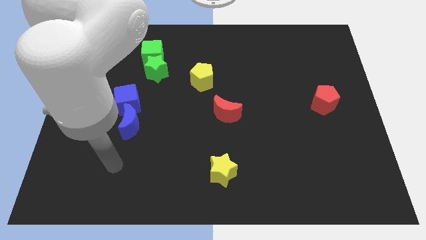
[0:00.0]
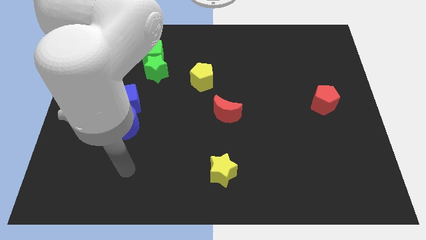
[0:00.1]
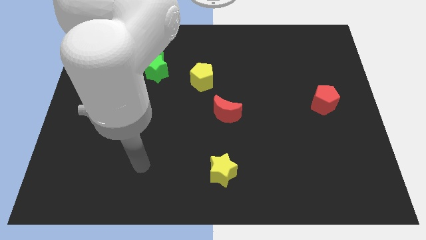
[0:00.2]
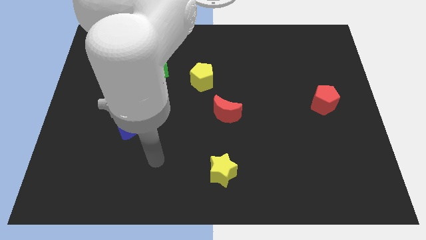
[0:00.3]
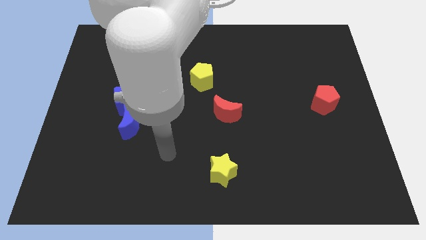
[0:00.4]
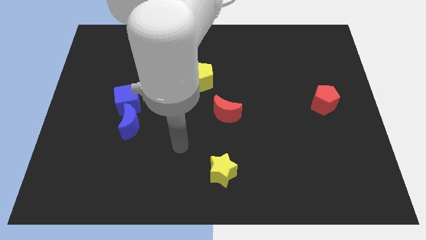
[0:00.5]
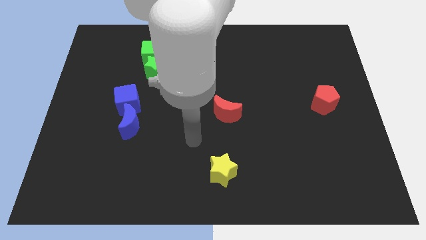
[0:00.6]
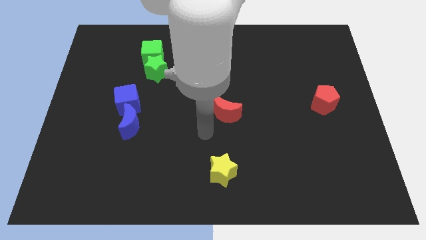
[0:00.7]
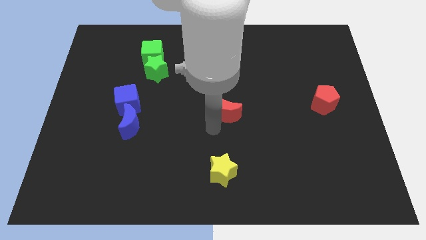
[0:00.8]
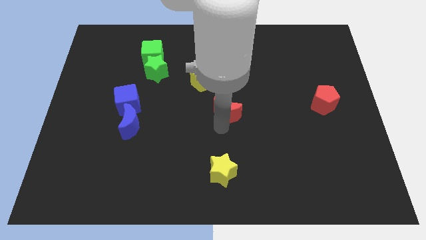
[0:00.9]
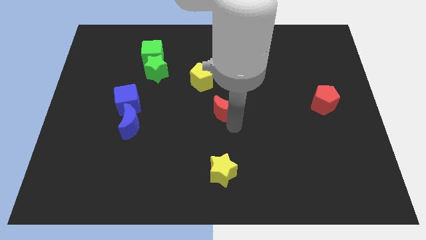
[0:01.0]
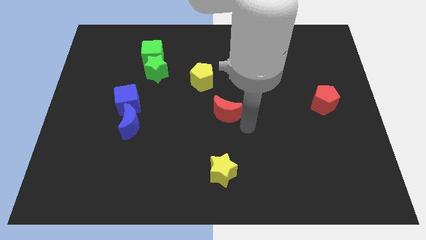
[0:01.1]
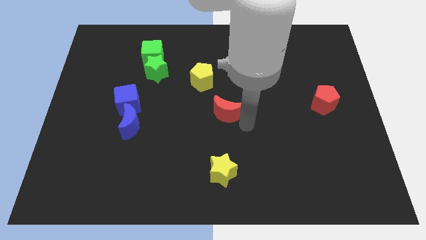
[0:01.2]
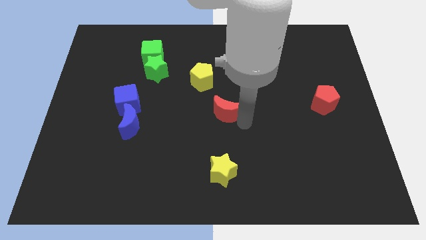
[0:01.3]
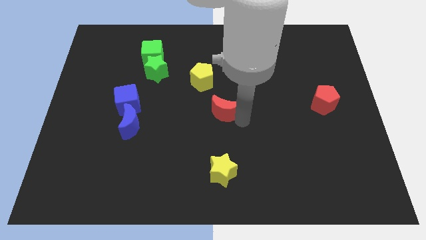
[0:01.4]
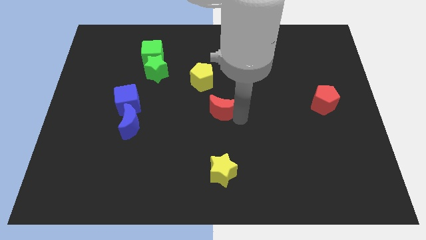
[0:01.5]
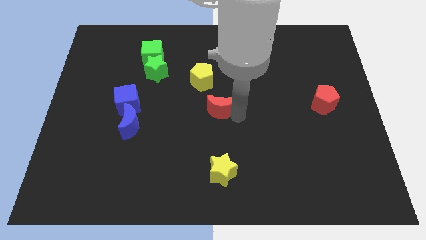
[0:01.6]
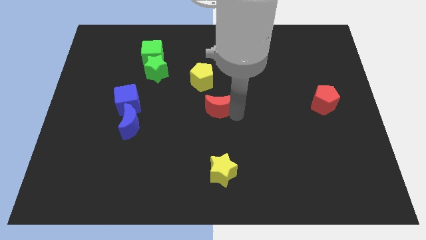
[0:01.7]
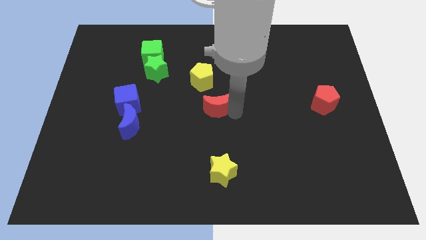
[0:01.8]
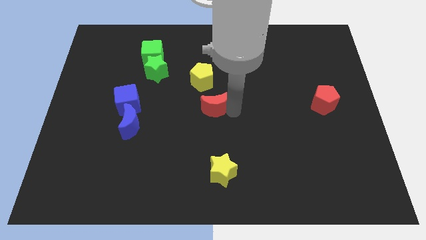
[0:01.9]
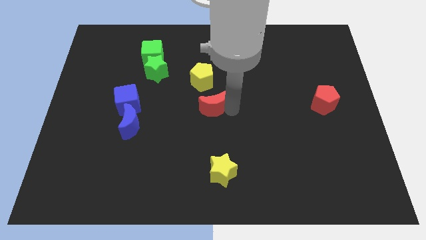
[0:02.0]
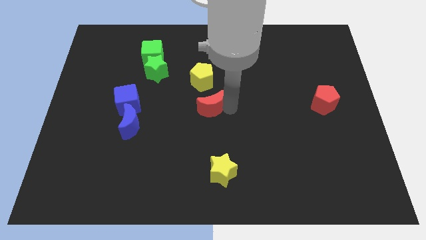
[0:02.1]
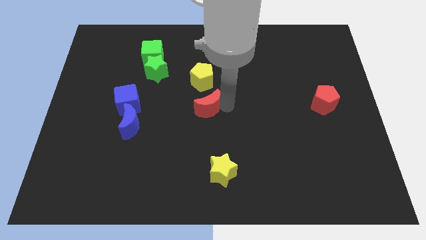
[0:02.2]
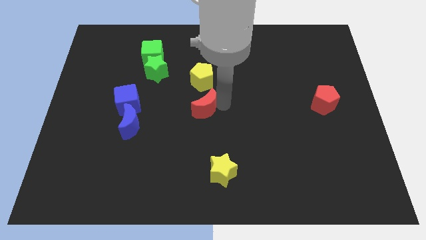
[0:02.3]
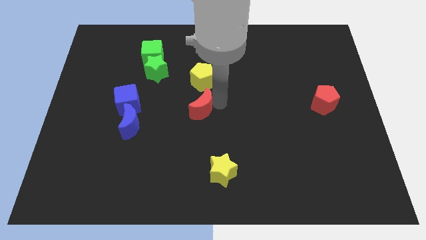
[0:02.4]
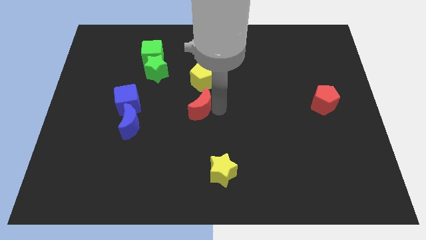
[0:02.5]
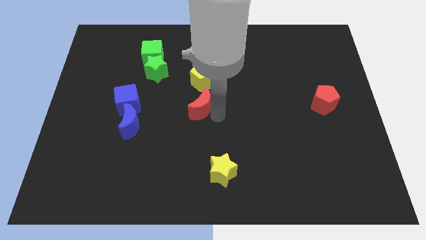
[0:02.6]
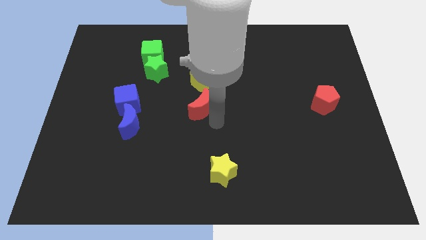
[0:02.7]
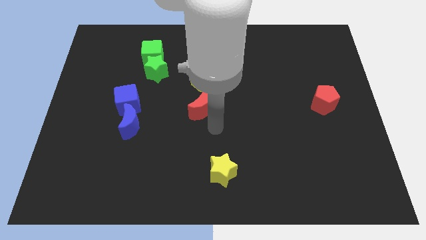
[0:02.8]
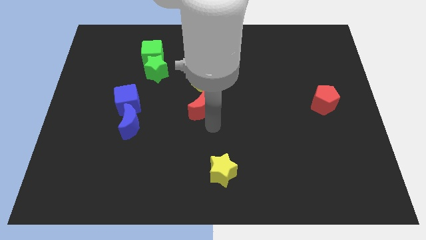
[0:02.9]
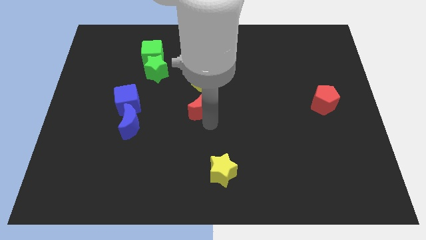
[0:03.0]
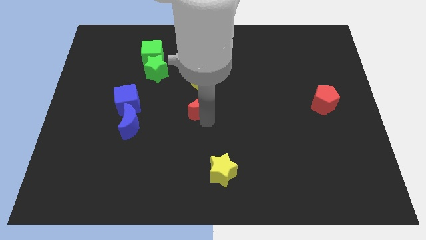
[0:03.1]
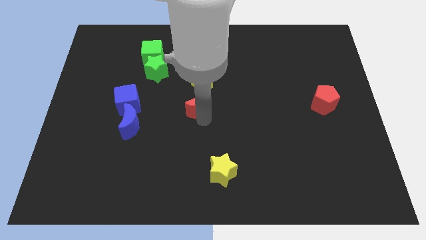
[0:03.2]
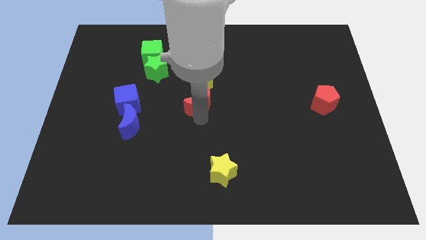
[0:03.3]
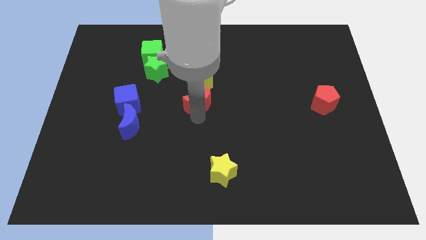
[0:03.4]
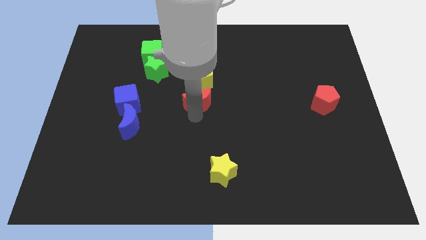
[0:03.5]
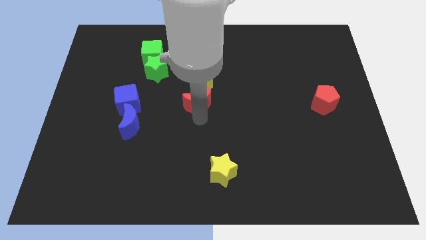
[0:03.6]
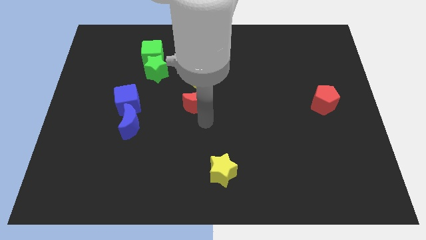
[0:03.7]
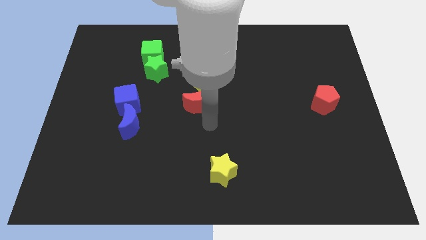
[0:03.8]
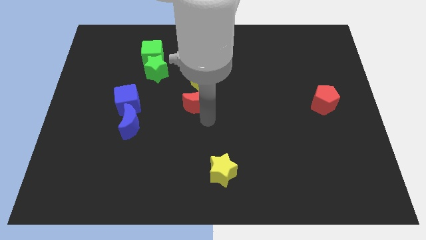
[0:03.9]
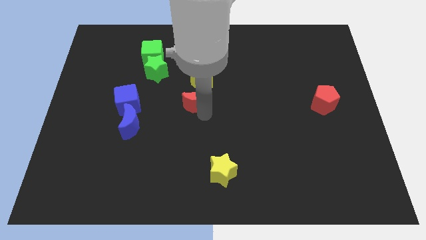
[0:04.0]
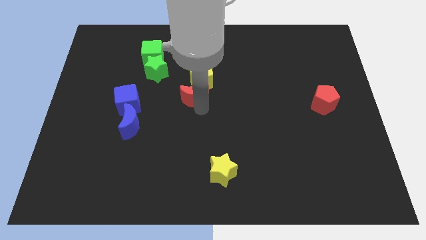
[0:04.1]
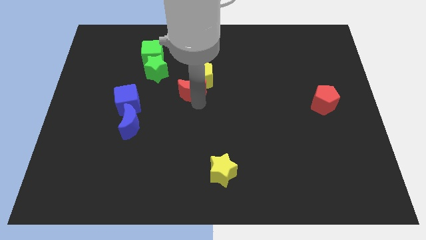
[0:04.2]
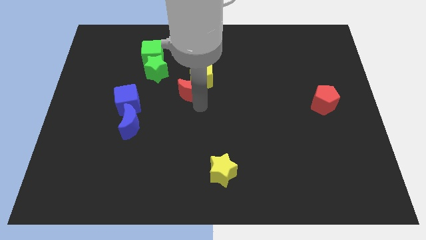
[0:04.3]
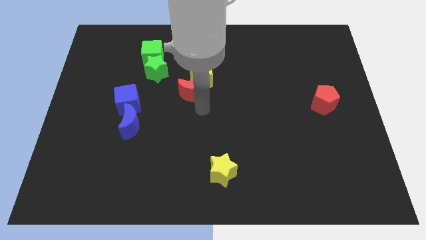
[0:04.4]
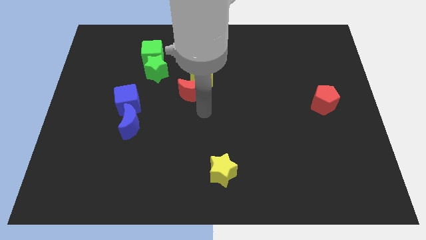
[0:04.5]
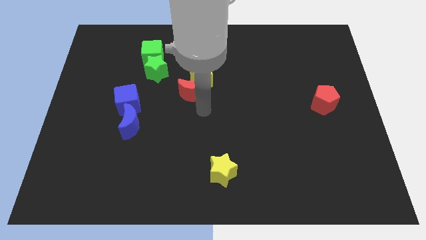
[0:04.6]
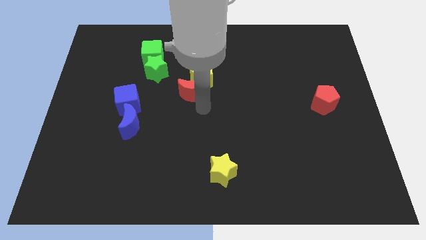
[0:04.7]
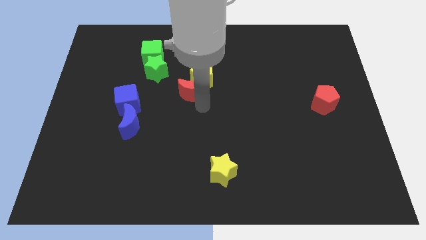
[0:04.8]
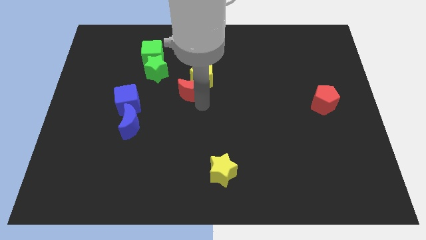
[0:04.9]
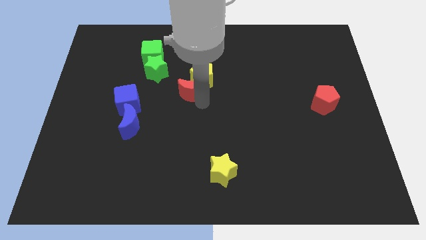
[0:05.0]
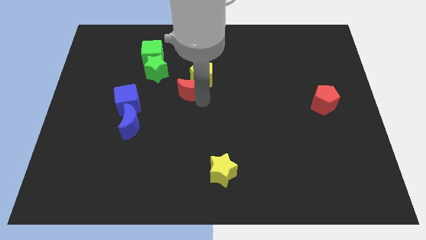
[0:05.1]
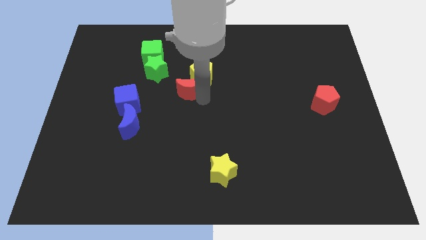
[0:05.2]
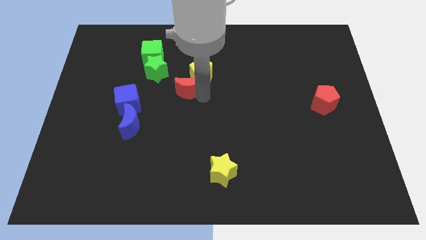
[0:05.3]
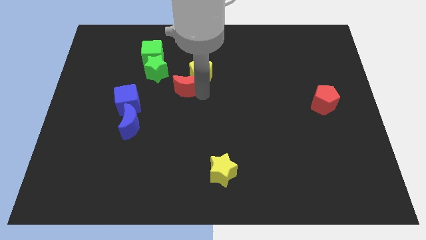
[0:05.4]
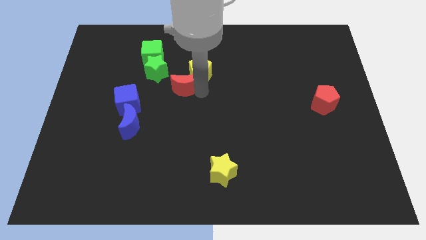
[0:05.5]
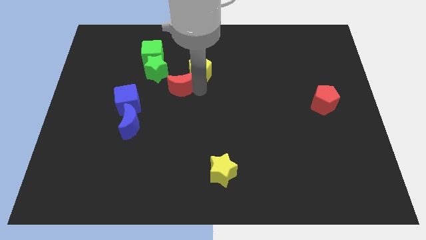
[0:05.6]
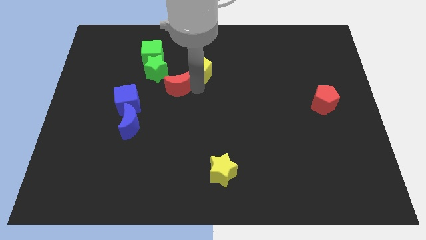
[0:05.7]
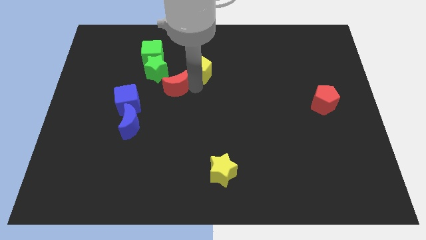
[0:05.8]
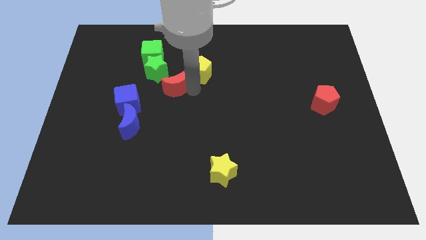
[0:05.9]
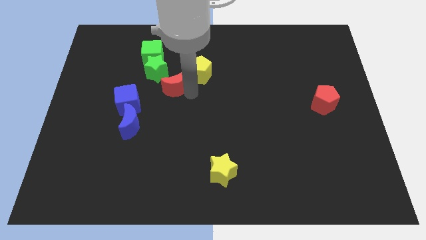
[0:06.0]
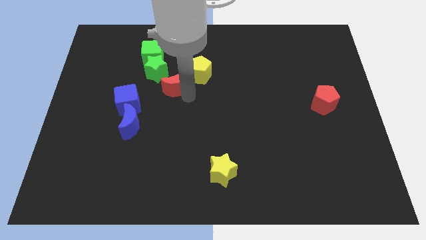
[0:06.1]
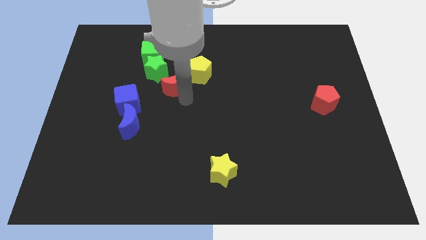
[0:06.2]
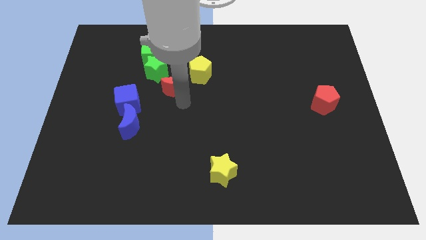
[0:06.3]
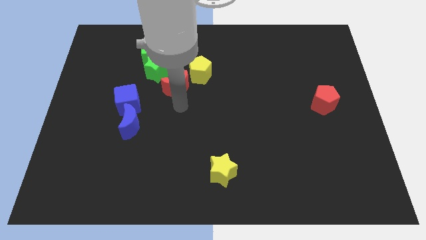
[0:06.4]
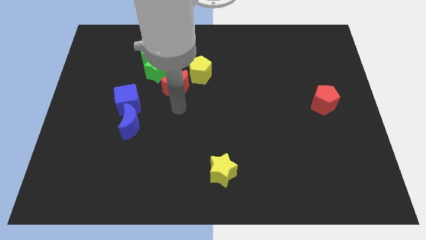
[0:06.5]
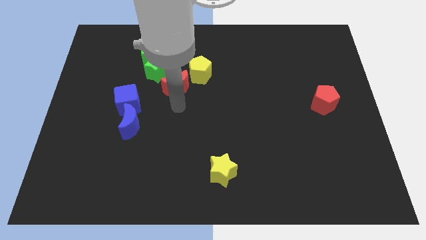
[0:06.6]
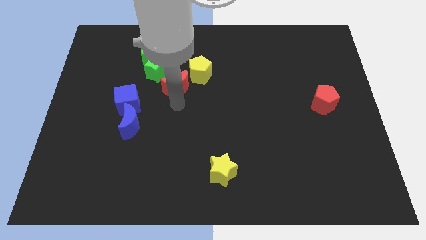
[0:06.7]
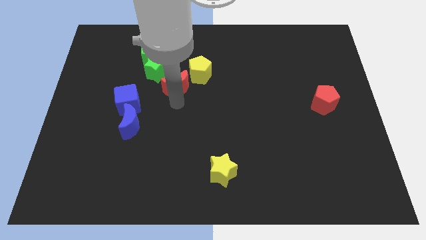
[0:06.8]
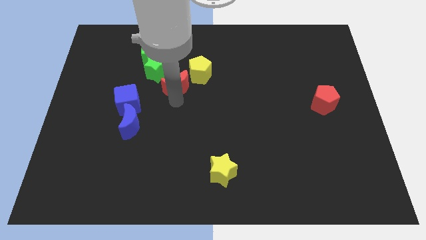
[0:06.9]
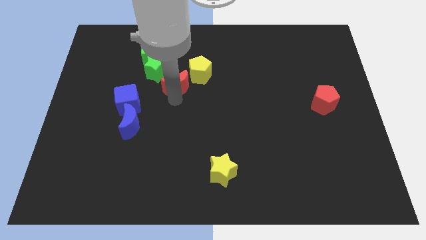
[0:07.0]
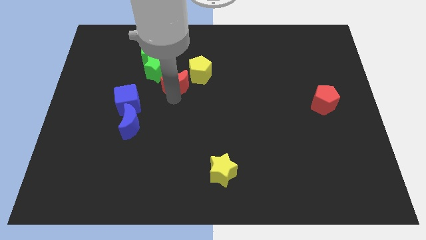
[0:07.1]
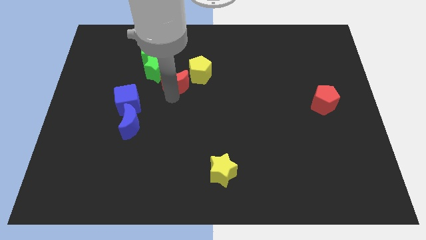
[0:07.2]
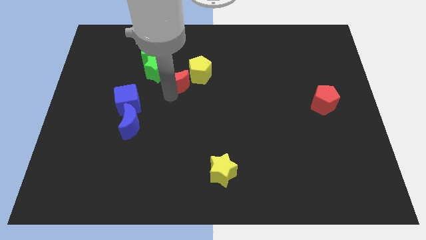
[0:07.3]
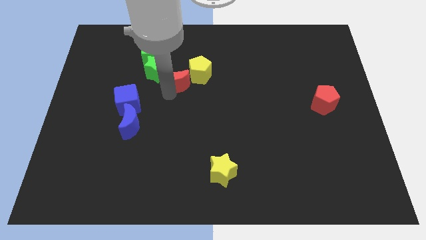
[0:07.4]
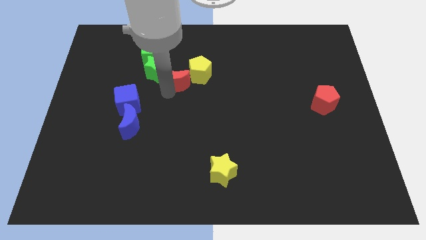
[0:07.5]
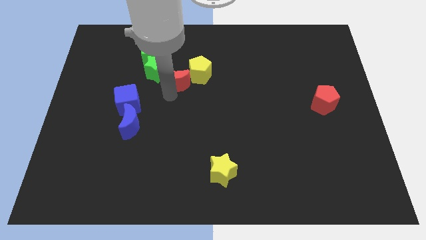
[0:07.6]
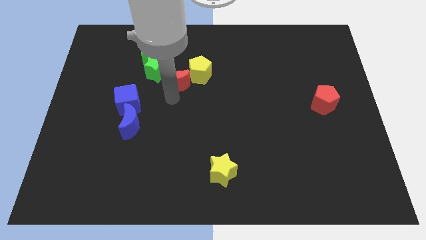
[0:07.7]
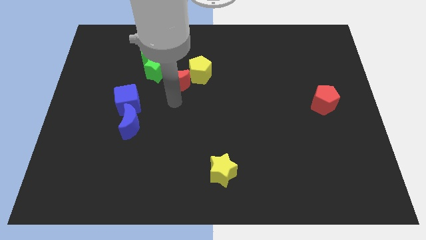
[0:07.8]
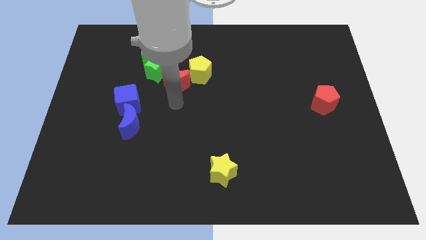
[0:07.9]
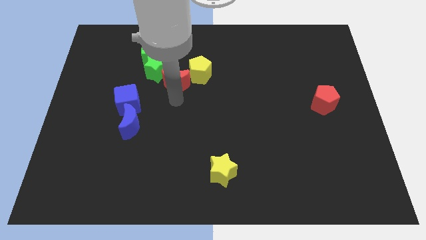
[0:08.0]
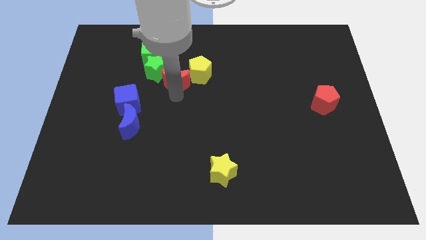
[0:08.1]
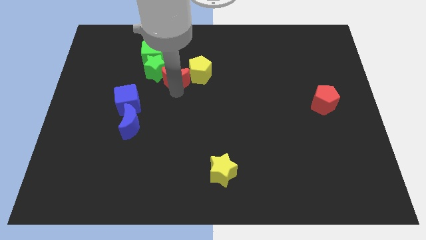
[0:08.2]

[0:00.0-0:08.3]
move the red moon towards the green star
